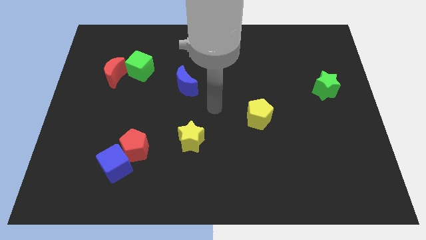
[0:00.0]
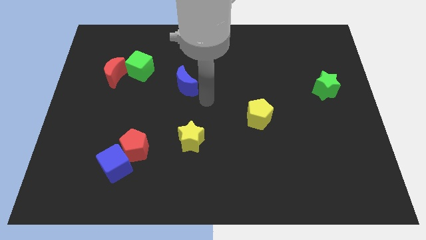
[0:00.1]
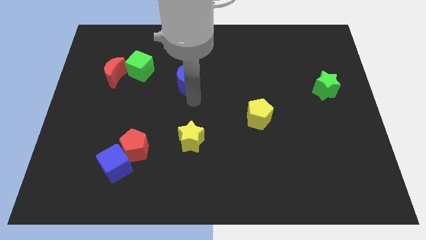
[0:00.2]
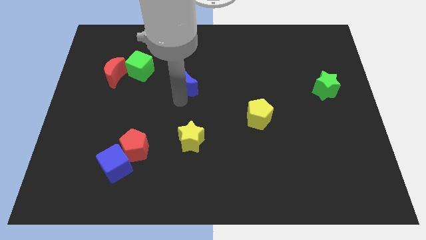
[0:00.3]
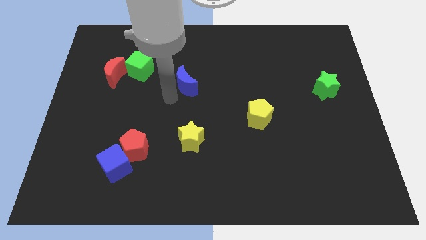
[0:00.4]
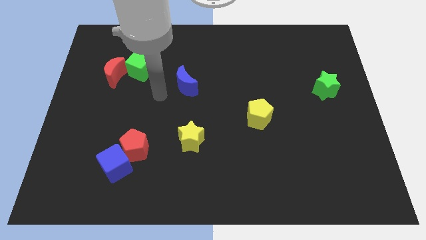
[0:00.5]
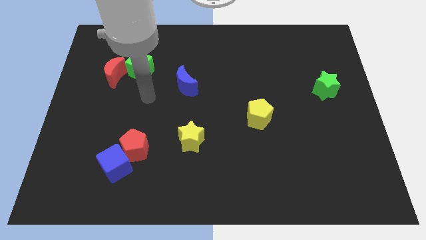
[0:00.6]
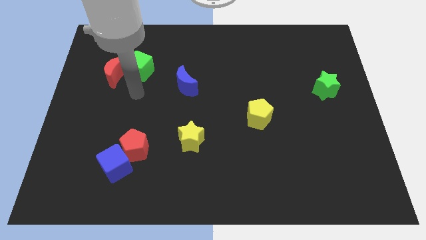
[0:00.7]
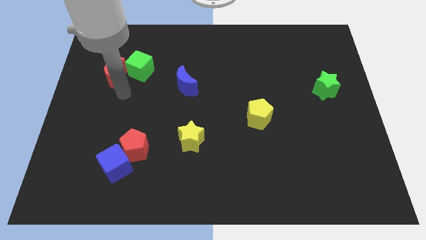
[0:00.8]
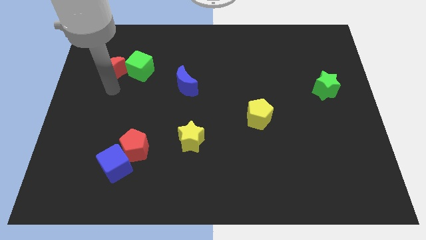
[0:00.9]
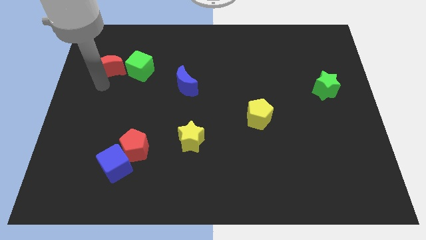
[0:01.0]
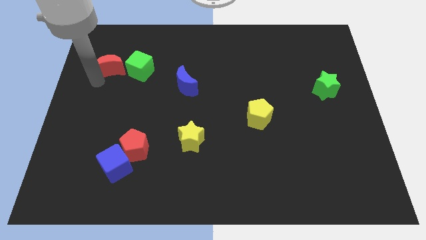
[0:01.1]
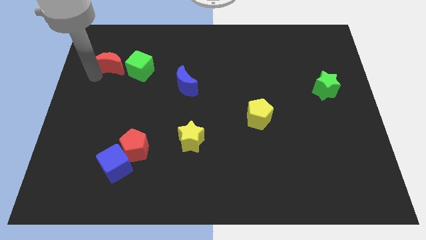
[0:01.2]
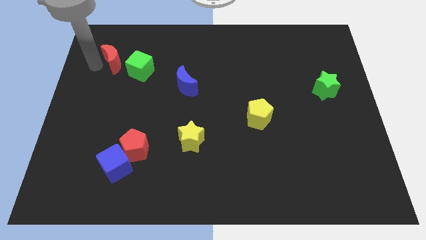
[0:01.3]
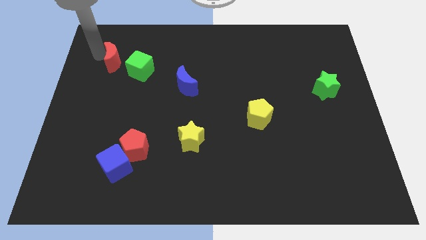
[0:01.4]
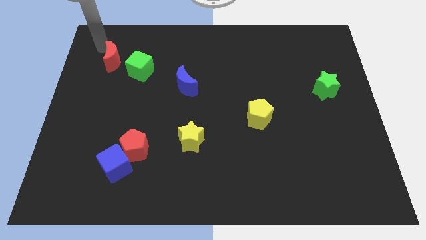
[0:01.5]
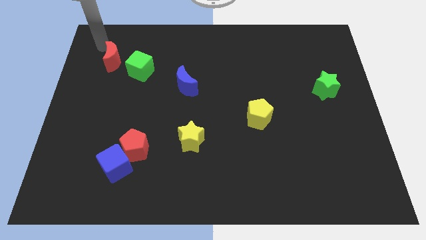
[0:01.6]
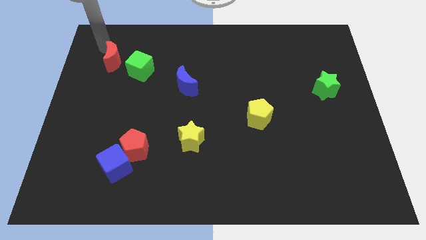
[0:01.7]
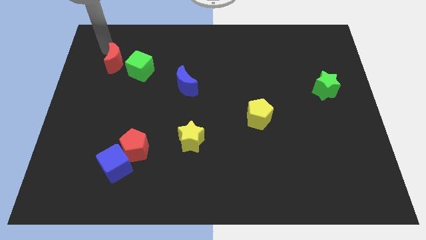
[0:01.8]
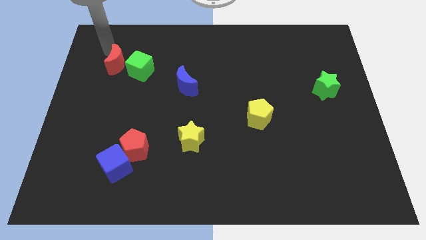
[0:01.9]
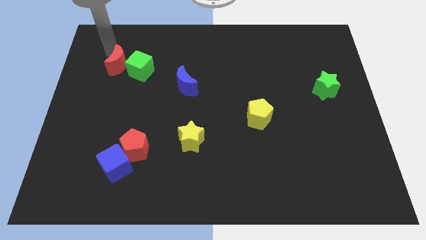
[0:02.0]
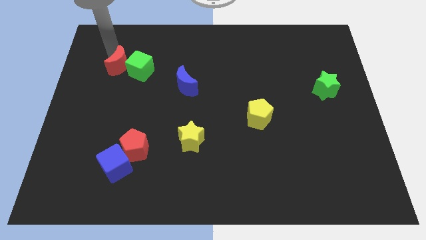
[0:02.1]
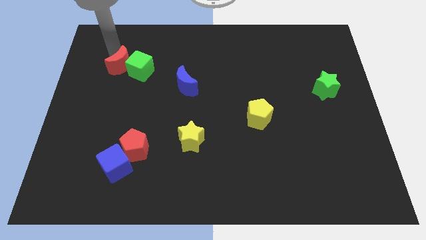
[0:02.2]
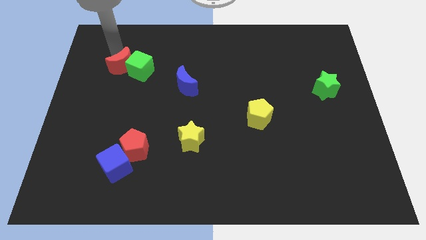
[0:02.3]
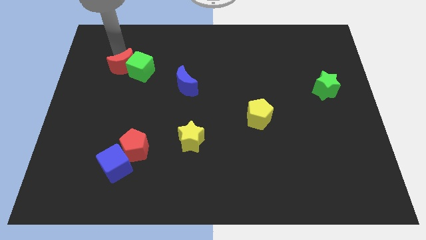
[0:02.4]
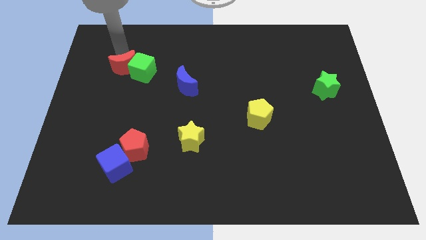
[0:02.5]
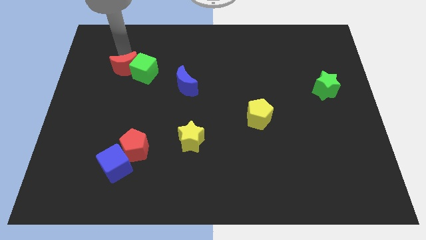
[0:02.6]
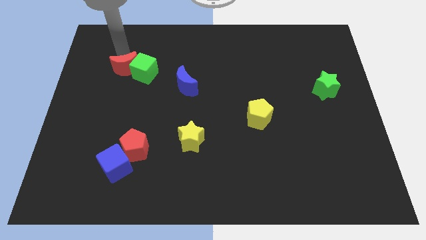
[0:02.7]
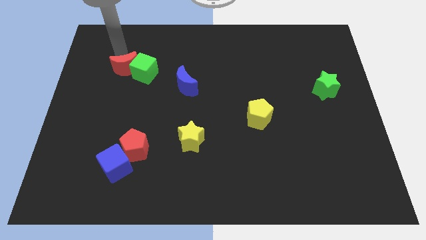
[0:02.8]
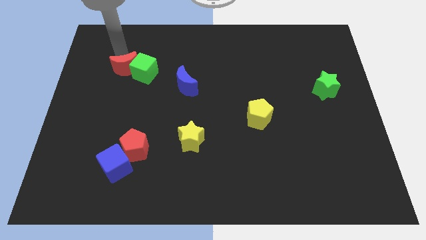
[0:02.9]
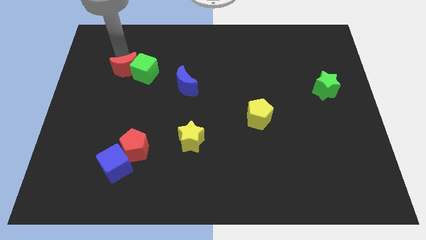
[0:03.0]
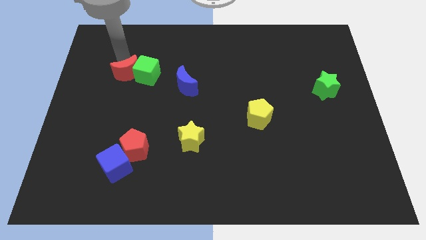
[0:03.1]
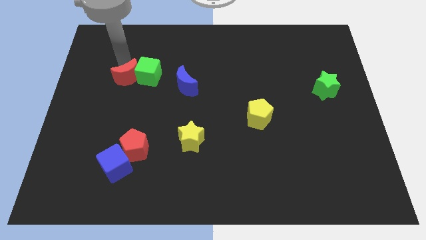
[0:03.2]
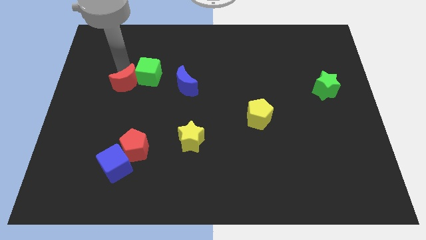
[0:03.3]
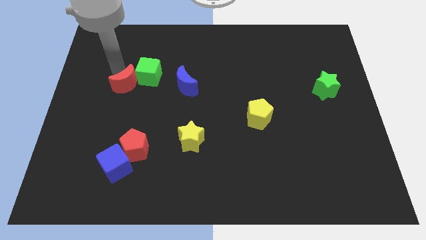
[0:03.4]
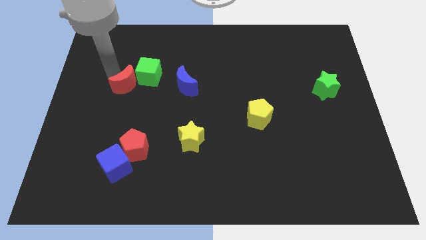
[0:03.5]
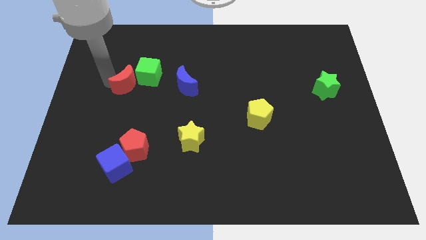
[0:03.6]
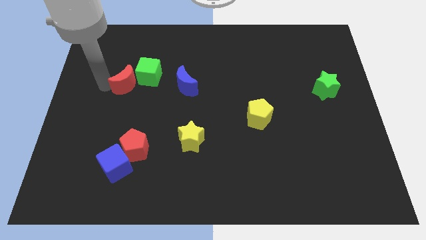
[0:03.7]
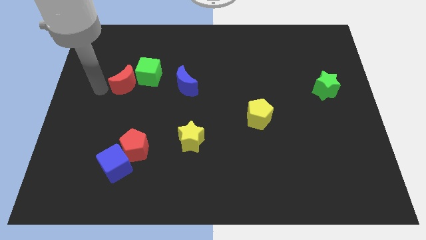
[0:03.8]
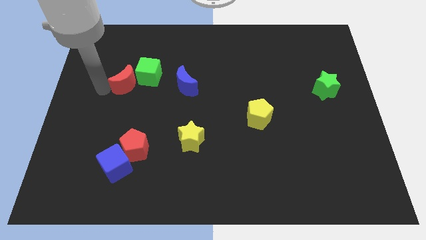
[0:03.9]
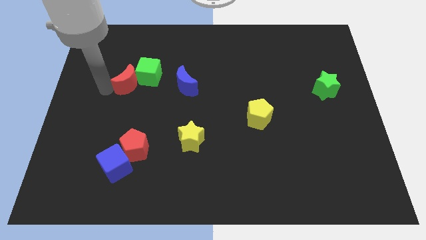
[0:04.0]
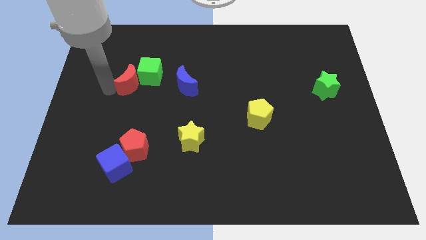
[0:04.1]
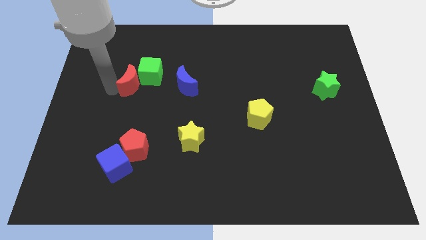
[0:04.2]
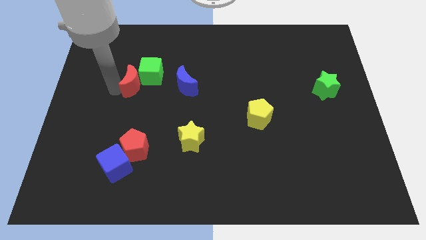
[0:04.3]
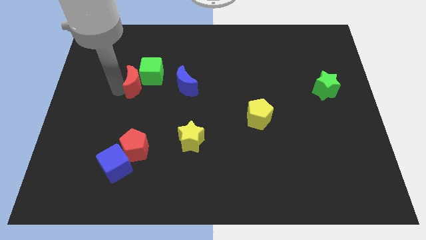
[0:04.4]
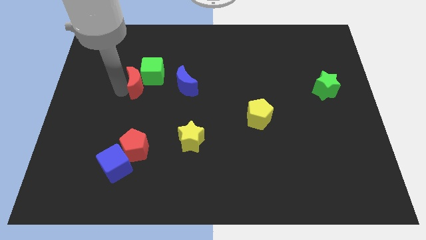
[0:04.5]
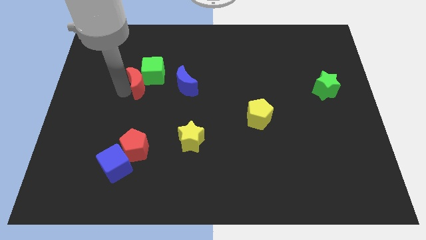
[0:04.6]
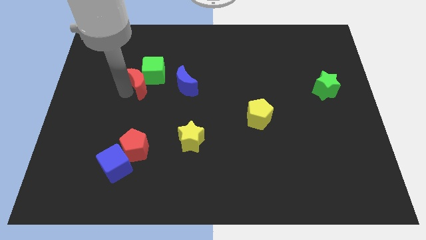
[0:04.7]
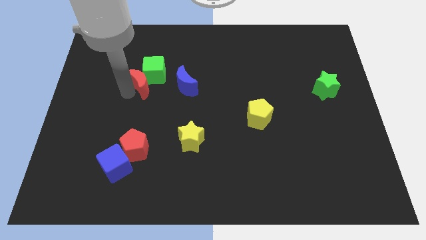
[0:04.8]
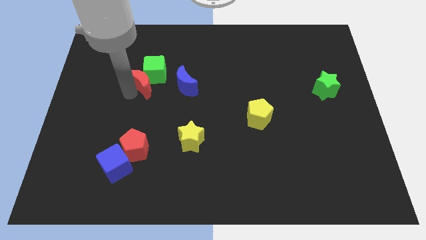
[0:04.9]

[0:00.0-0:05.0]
slightly push the red moon right

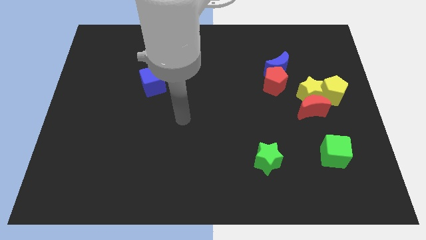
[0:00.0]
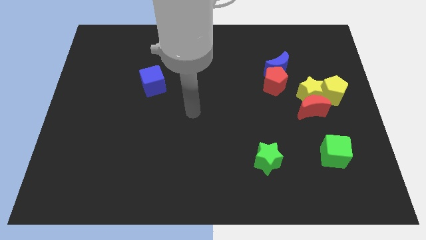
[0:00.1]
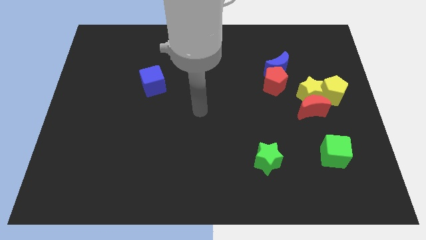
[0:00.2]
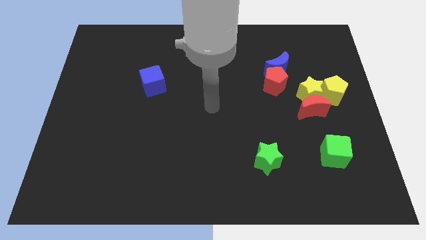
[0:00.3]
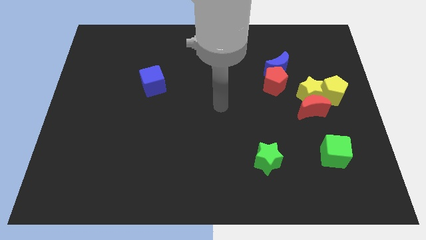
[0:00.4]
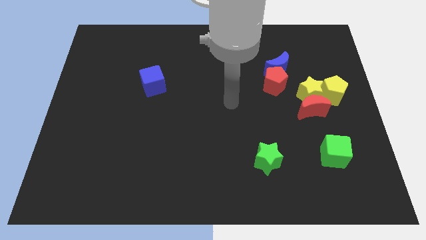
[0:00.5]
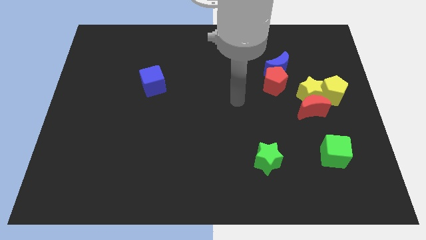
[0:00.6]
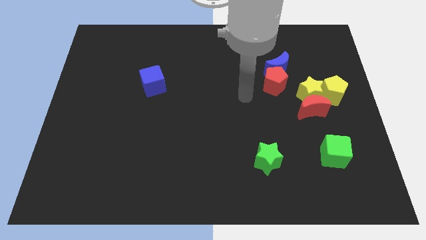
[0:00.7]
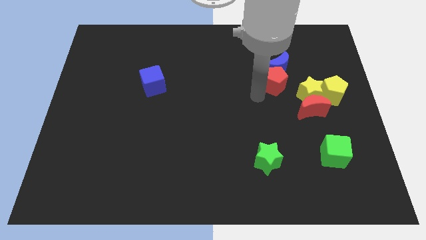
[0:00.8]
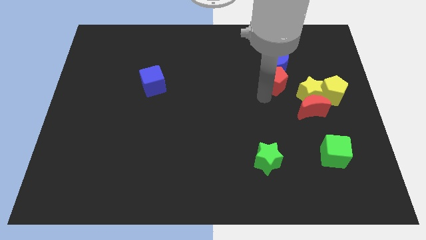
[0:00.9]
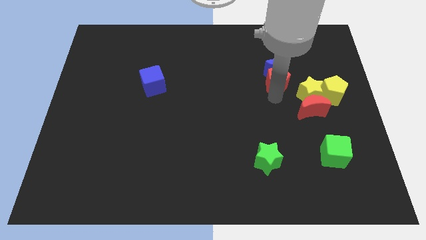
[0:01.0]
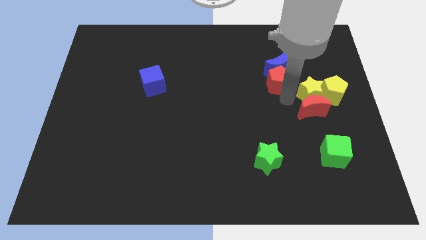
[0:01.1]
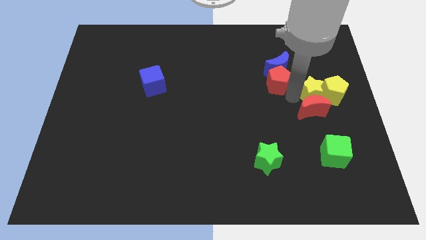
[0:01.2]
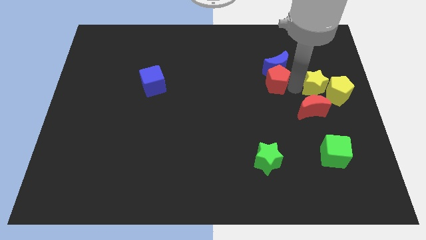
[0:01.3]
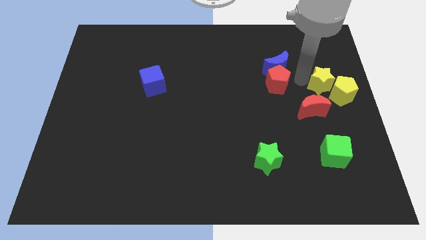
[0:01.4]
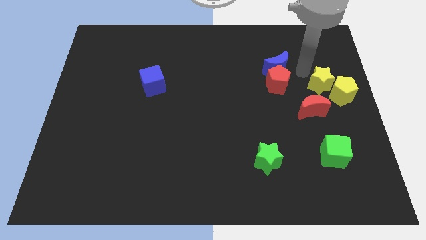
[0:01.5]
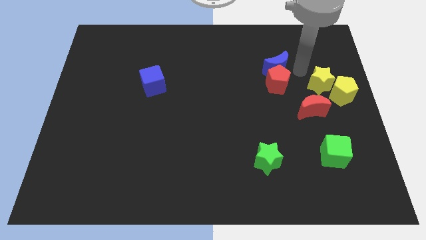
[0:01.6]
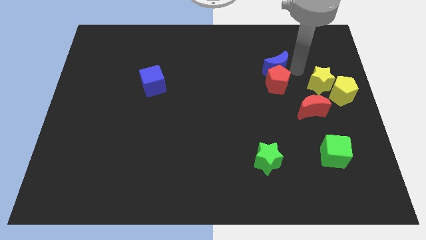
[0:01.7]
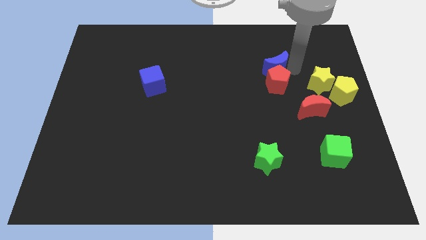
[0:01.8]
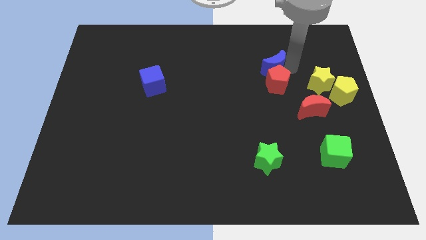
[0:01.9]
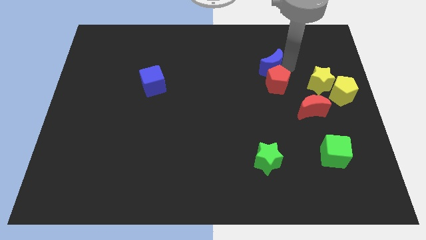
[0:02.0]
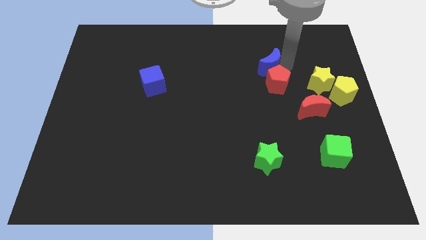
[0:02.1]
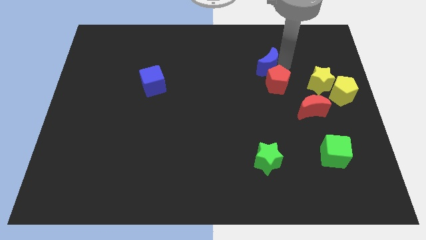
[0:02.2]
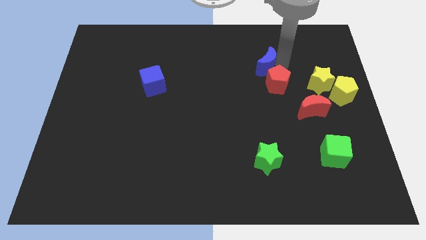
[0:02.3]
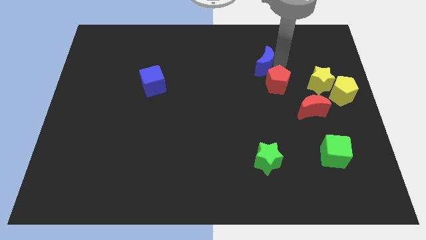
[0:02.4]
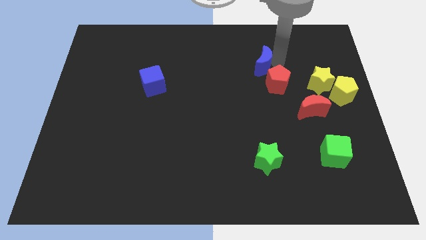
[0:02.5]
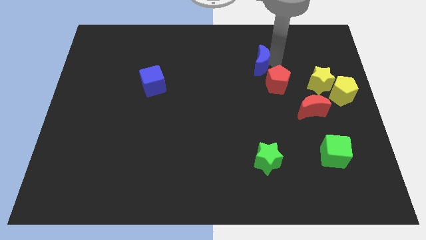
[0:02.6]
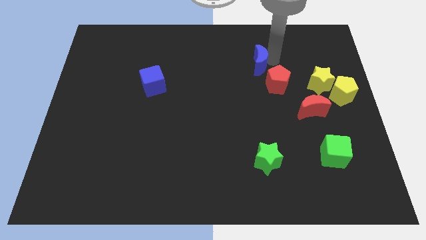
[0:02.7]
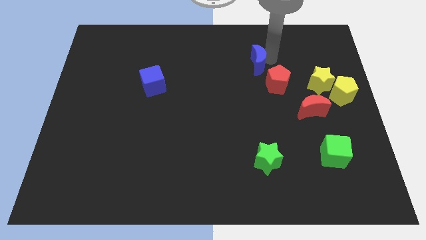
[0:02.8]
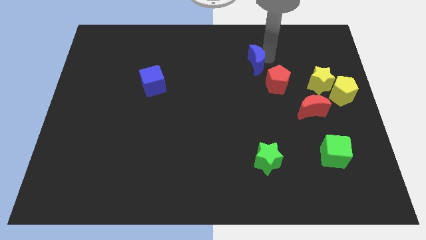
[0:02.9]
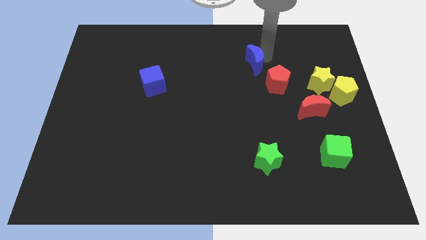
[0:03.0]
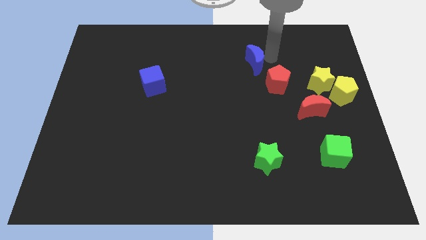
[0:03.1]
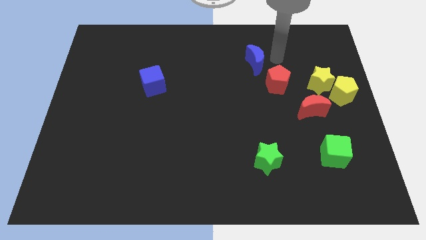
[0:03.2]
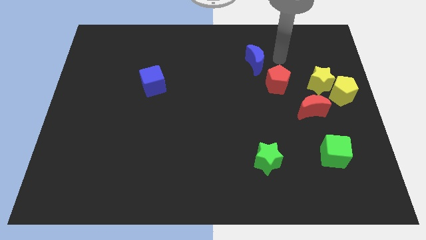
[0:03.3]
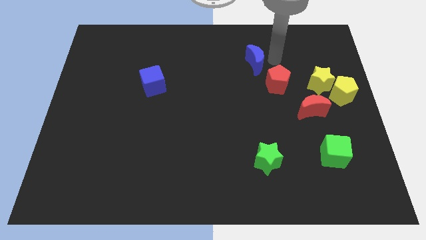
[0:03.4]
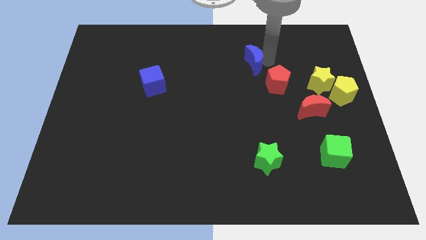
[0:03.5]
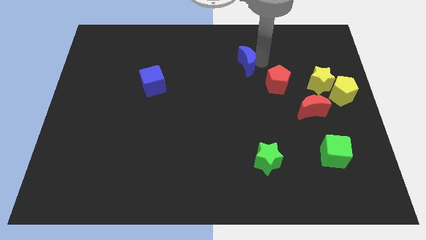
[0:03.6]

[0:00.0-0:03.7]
slightly push the blue moon to the left
